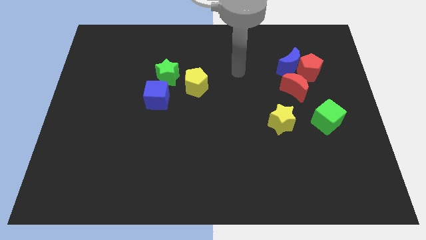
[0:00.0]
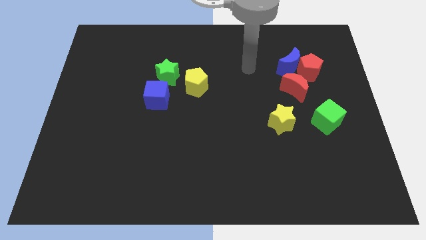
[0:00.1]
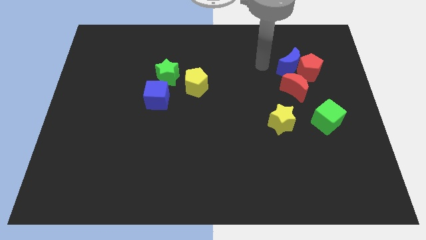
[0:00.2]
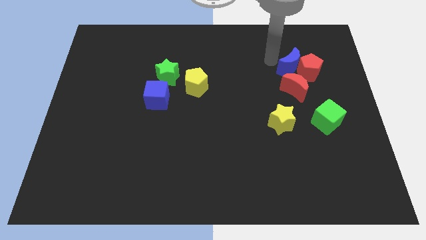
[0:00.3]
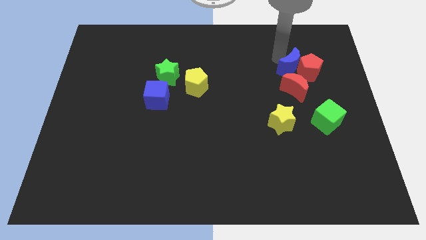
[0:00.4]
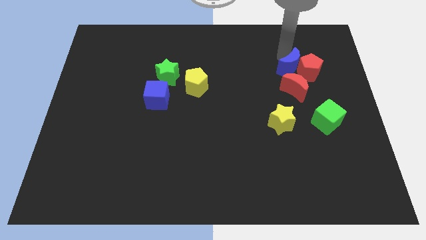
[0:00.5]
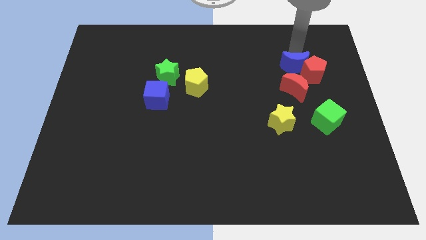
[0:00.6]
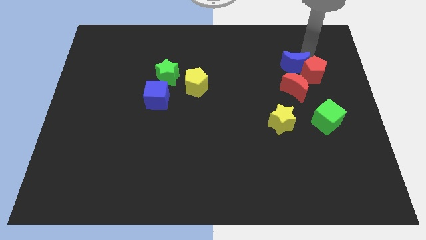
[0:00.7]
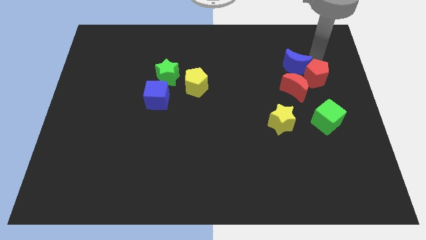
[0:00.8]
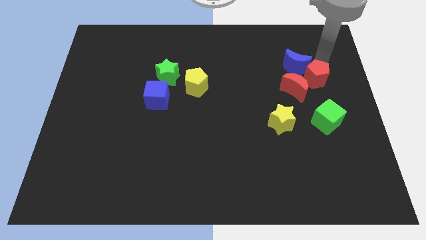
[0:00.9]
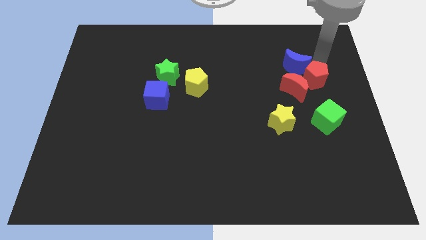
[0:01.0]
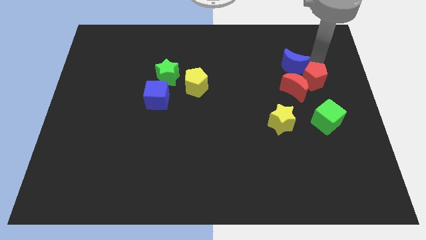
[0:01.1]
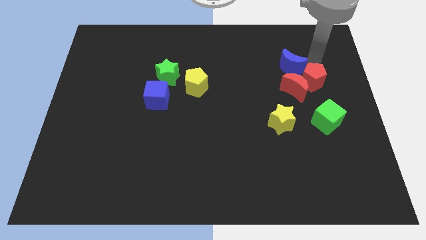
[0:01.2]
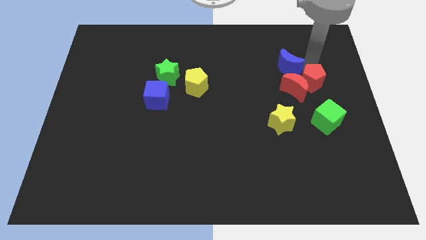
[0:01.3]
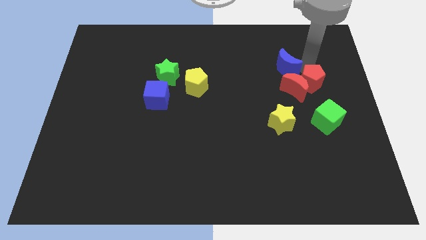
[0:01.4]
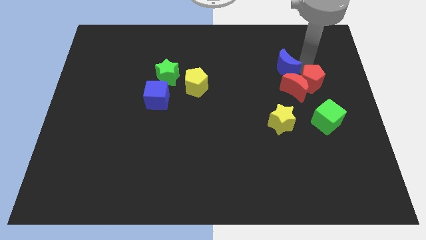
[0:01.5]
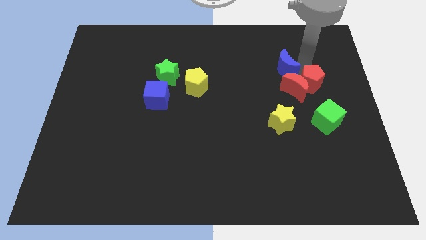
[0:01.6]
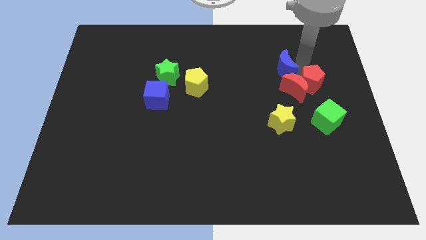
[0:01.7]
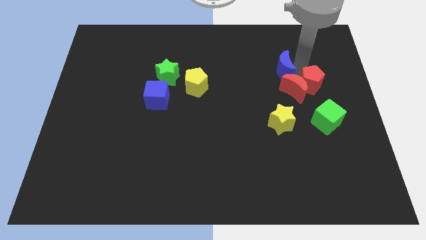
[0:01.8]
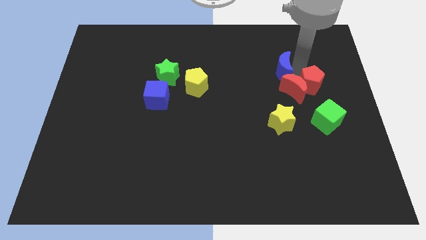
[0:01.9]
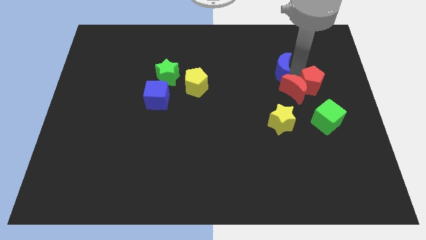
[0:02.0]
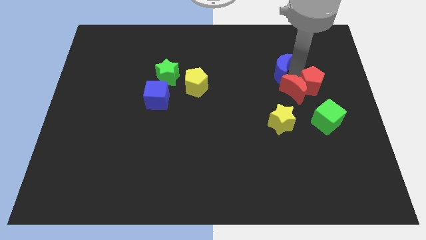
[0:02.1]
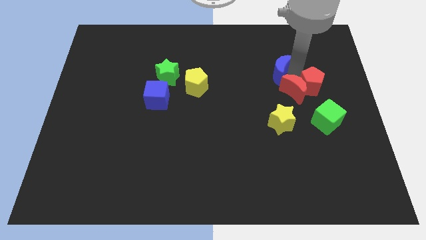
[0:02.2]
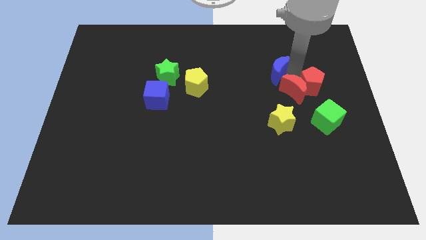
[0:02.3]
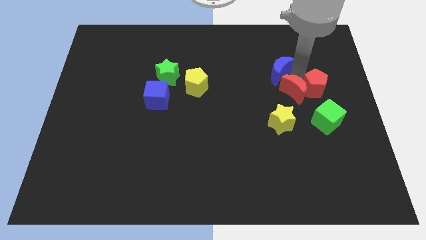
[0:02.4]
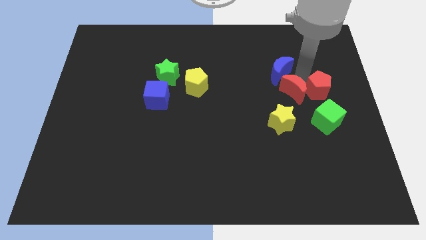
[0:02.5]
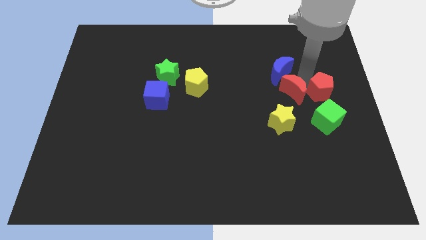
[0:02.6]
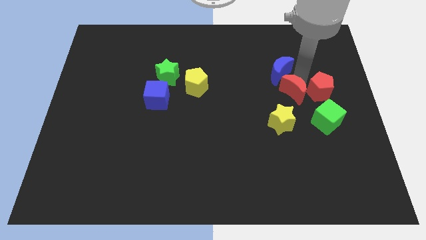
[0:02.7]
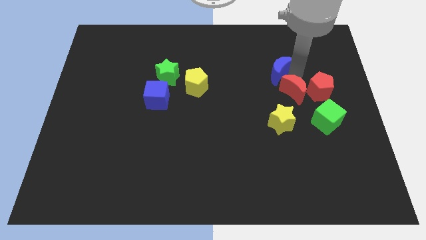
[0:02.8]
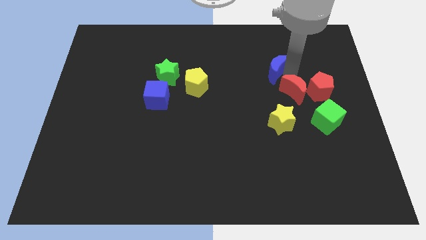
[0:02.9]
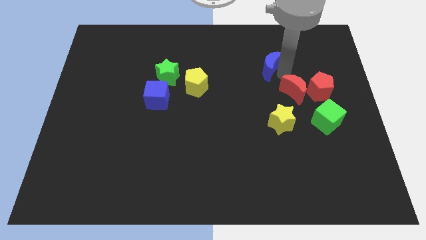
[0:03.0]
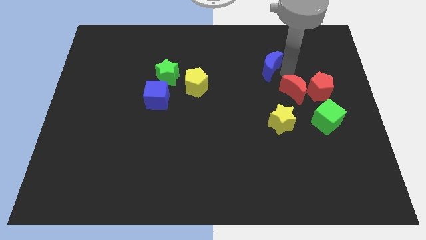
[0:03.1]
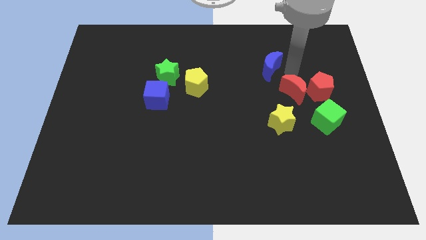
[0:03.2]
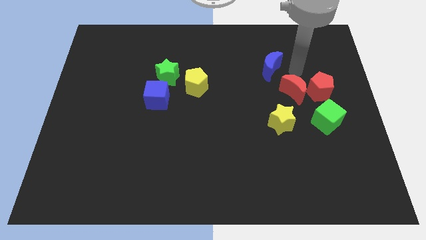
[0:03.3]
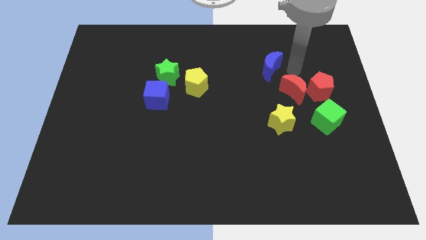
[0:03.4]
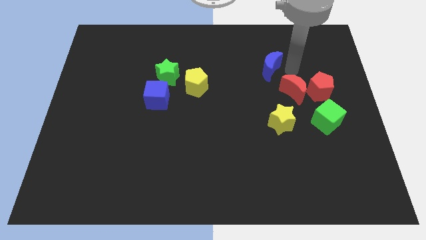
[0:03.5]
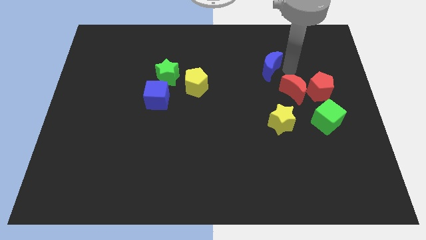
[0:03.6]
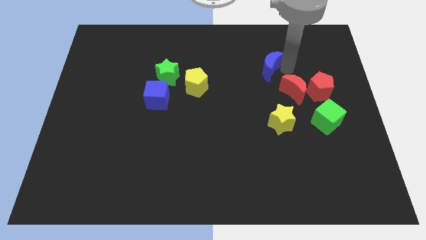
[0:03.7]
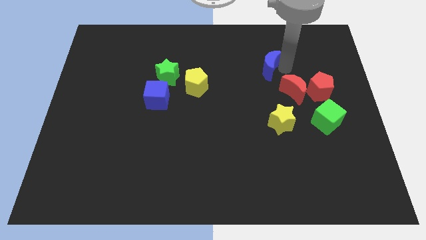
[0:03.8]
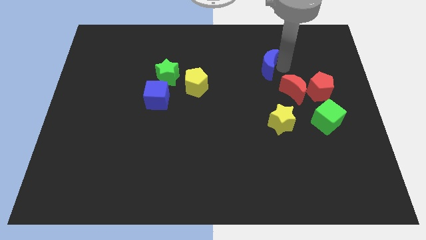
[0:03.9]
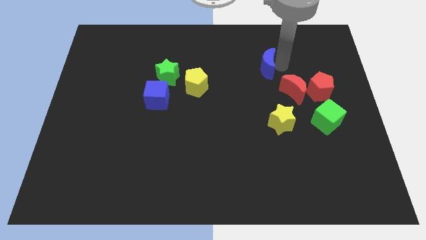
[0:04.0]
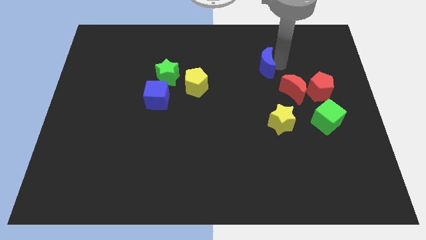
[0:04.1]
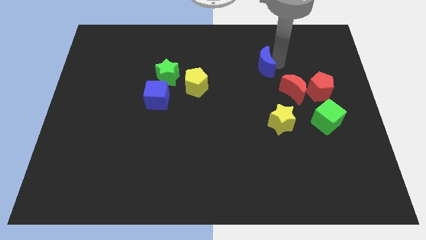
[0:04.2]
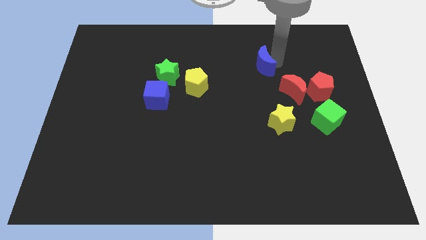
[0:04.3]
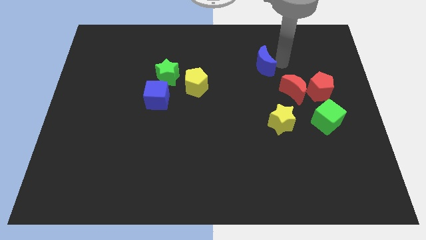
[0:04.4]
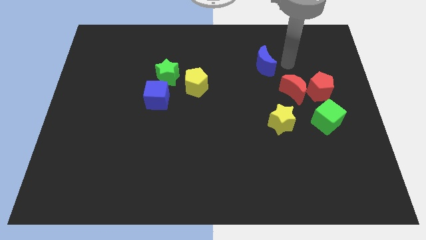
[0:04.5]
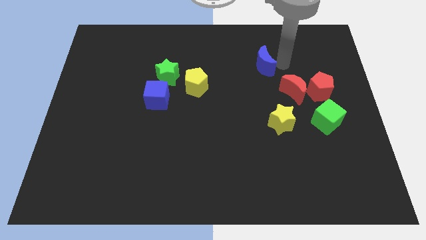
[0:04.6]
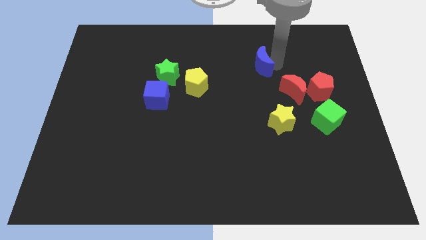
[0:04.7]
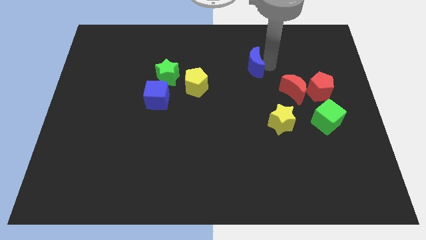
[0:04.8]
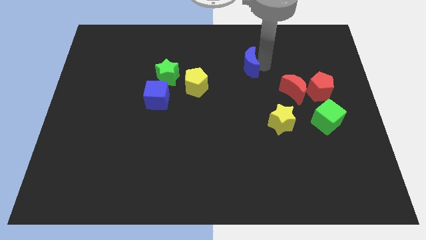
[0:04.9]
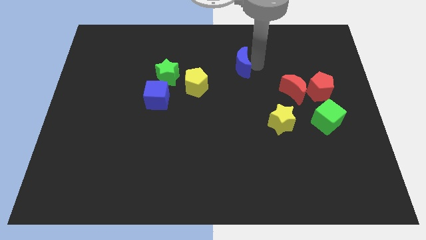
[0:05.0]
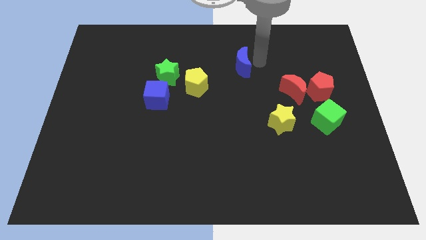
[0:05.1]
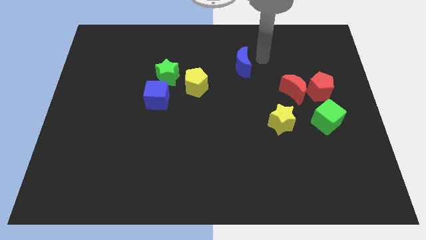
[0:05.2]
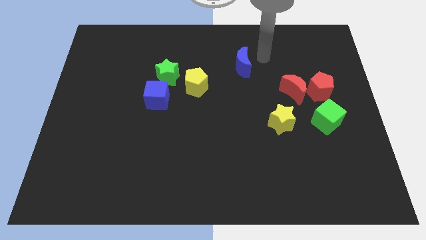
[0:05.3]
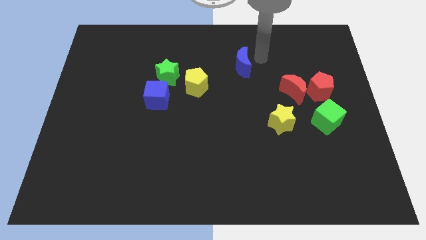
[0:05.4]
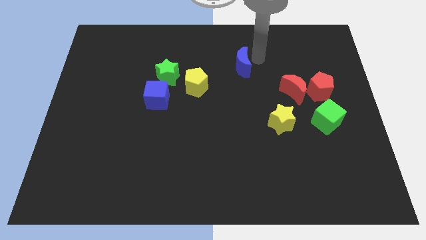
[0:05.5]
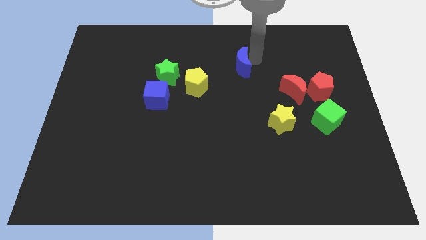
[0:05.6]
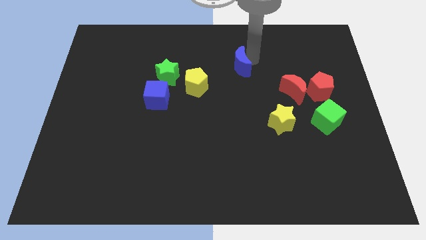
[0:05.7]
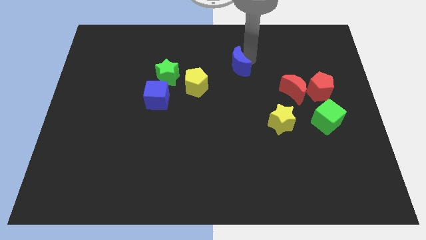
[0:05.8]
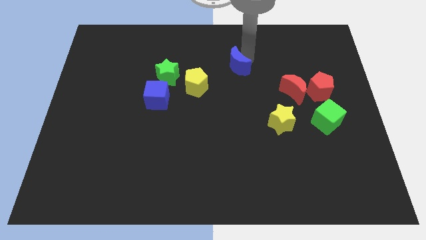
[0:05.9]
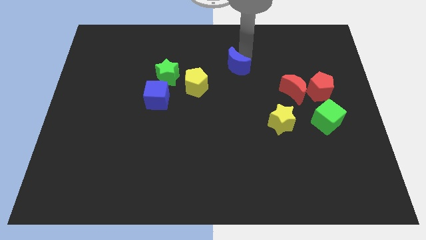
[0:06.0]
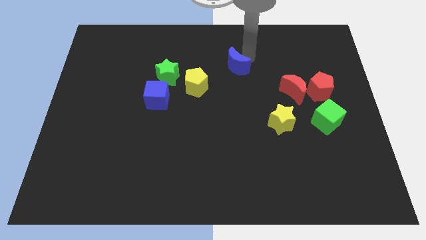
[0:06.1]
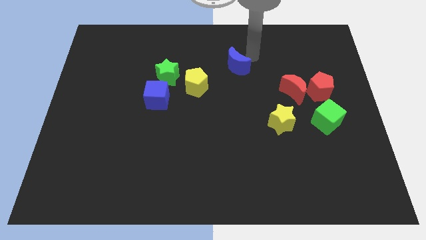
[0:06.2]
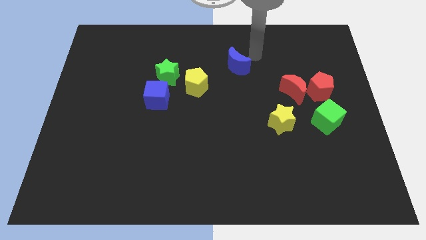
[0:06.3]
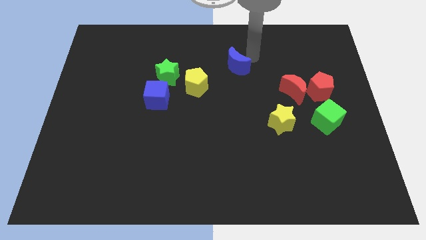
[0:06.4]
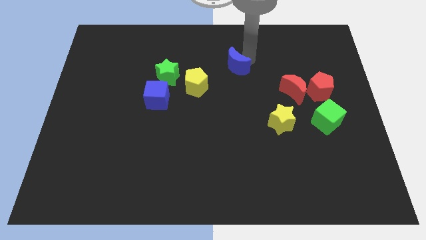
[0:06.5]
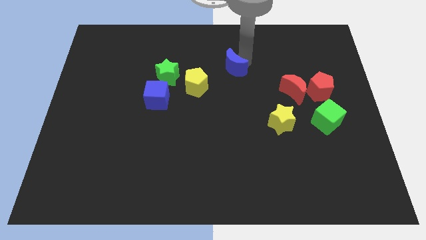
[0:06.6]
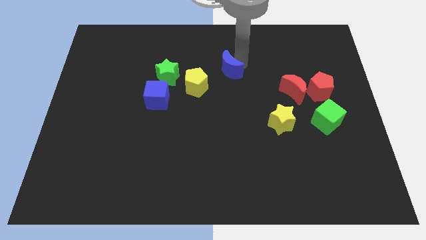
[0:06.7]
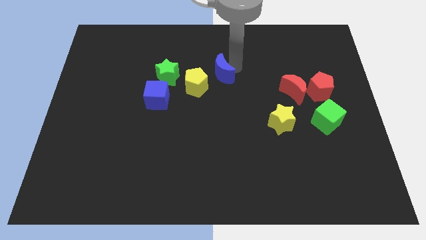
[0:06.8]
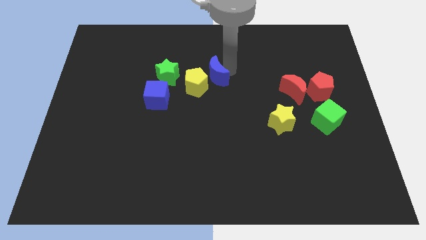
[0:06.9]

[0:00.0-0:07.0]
put the blue moon next to the yellow pentagon

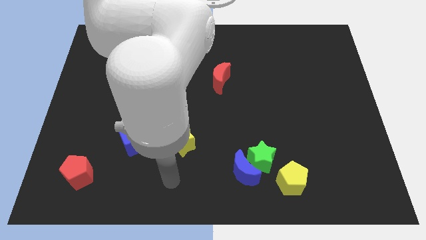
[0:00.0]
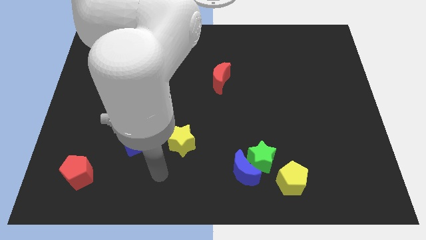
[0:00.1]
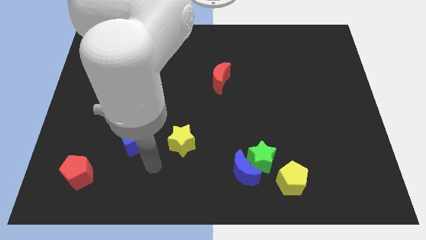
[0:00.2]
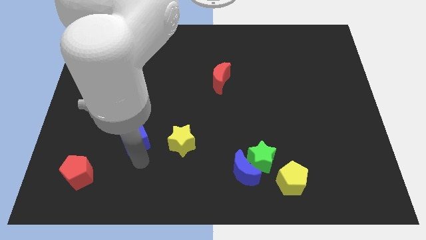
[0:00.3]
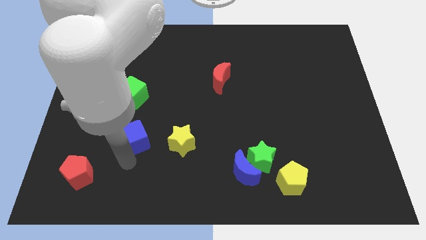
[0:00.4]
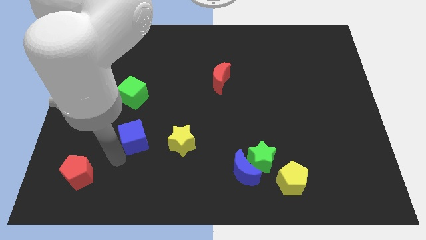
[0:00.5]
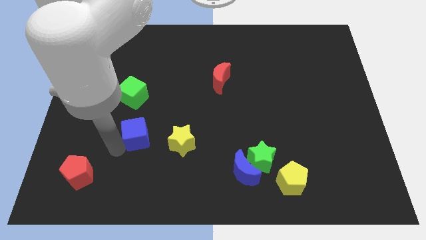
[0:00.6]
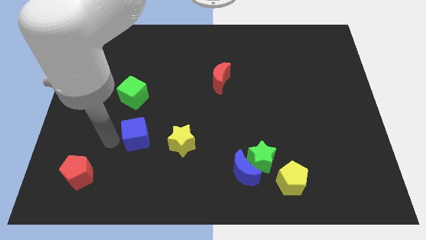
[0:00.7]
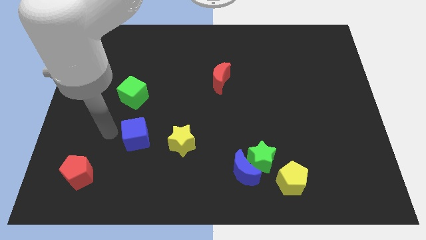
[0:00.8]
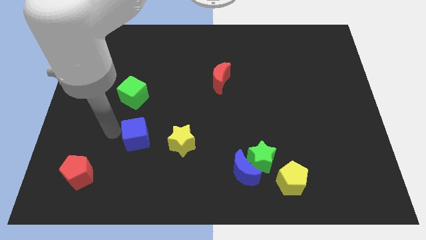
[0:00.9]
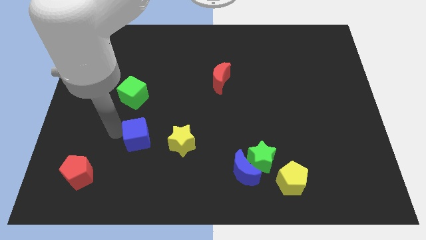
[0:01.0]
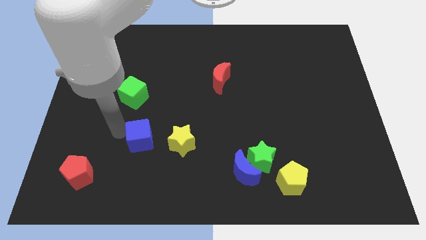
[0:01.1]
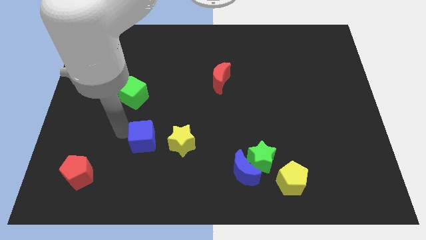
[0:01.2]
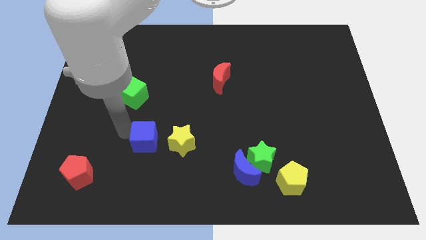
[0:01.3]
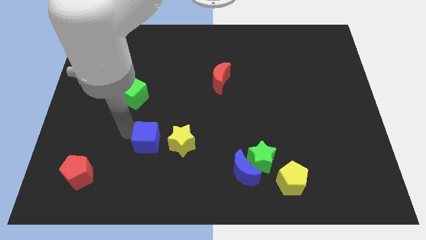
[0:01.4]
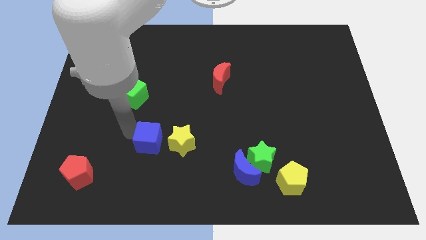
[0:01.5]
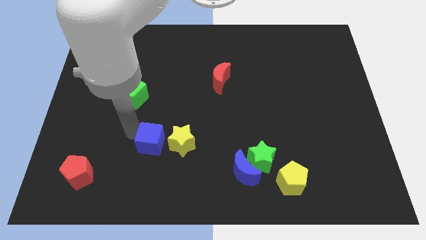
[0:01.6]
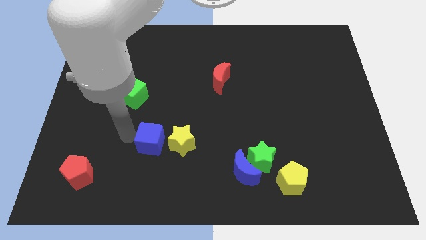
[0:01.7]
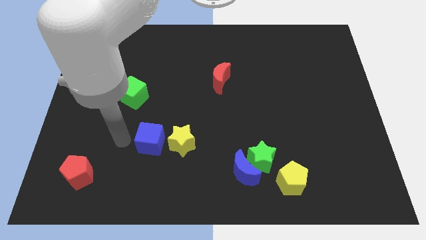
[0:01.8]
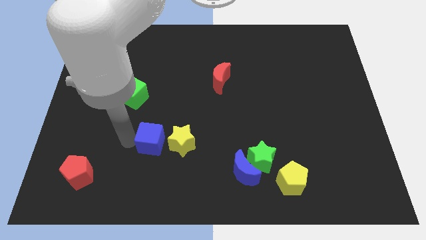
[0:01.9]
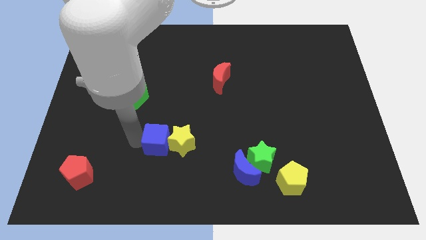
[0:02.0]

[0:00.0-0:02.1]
put the blue cube next to the yellow star
